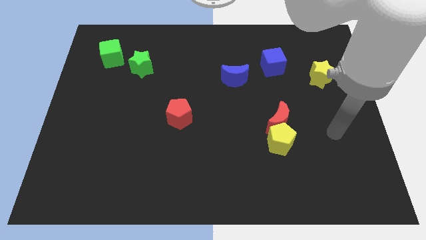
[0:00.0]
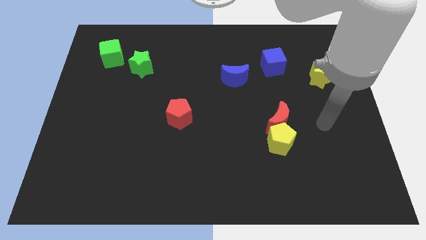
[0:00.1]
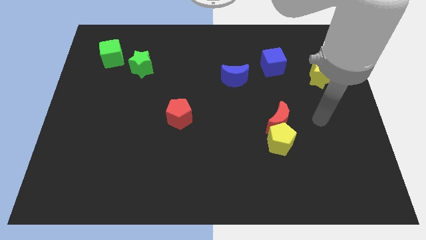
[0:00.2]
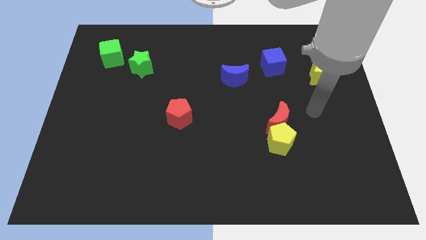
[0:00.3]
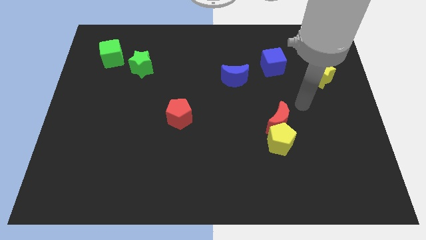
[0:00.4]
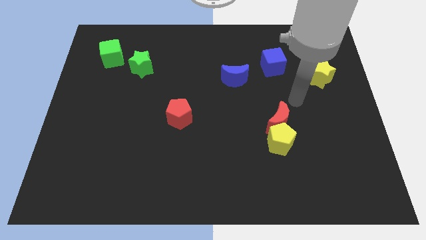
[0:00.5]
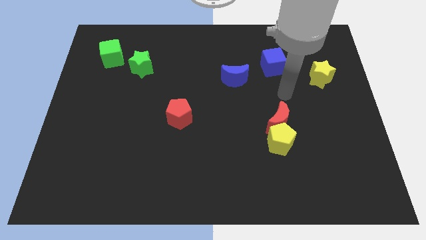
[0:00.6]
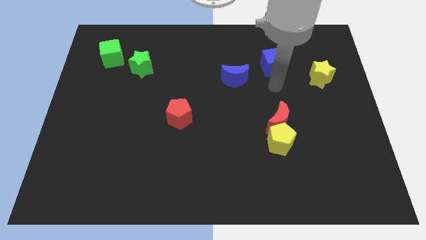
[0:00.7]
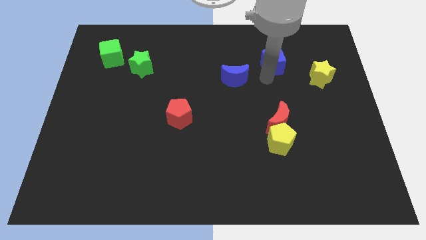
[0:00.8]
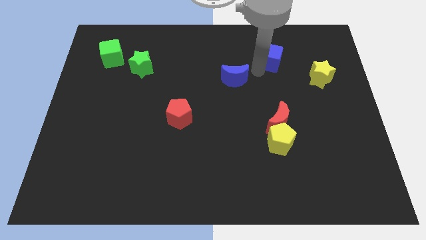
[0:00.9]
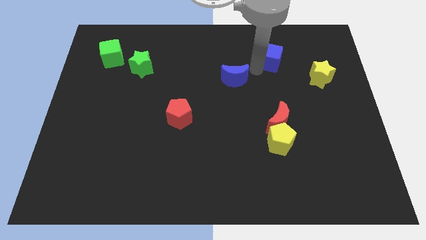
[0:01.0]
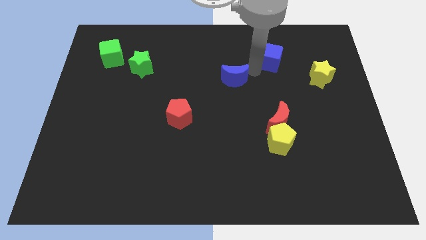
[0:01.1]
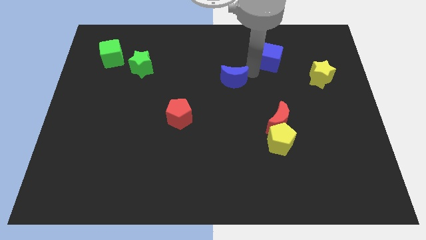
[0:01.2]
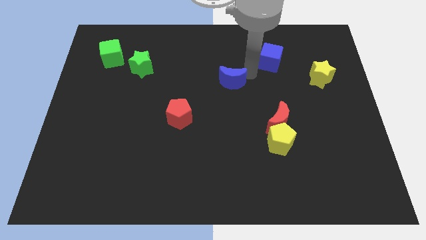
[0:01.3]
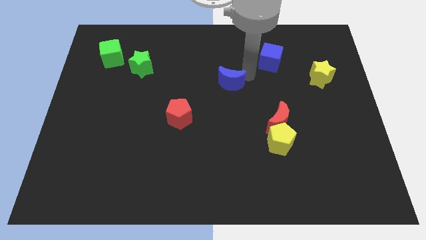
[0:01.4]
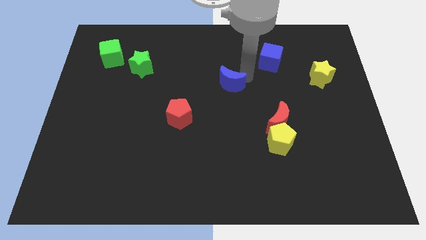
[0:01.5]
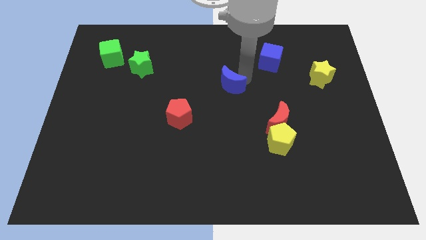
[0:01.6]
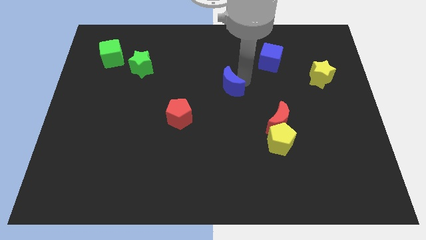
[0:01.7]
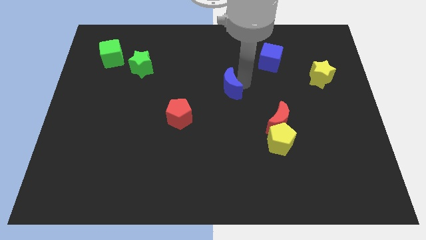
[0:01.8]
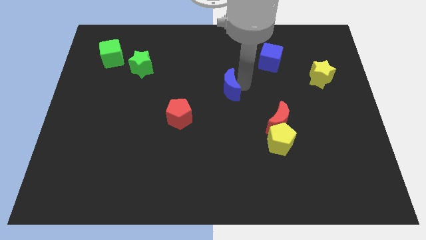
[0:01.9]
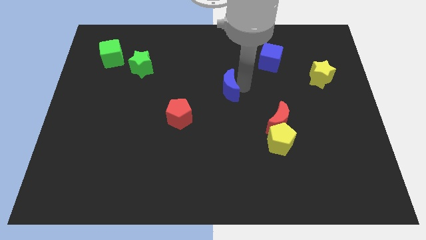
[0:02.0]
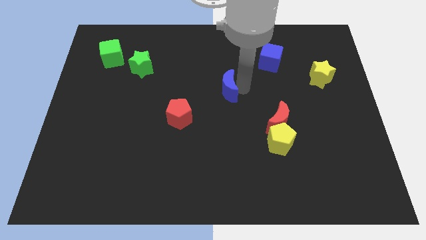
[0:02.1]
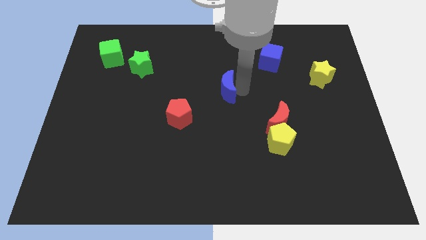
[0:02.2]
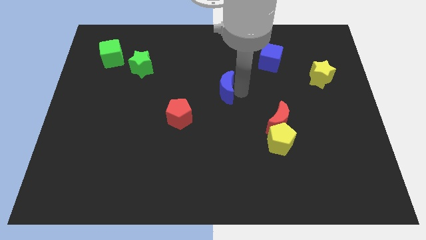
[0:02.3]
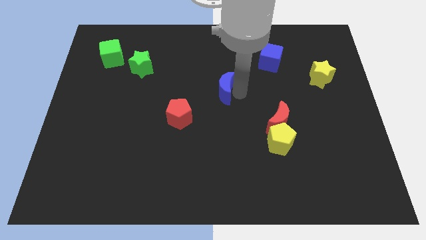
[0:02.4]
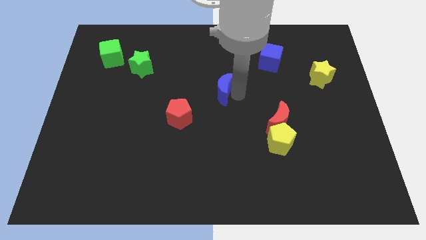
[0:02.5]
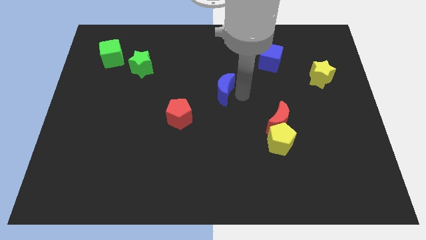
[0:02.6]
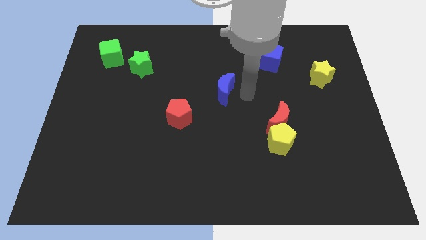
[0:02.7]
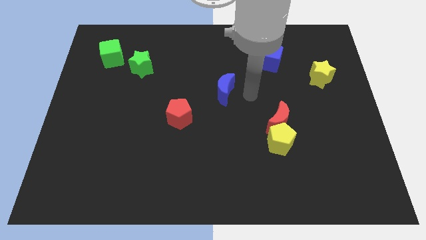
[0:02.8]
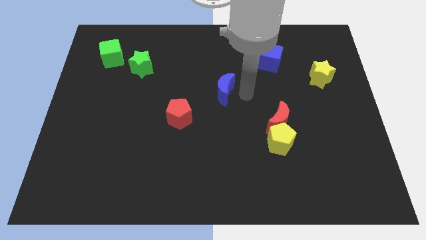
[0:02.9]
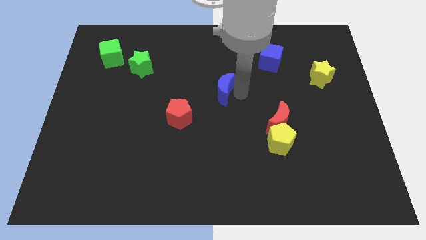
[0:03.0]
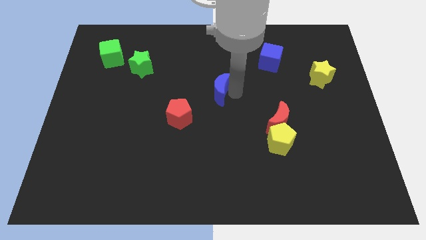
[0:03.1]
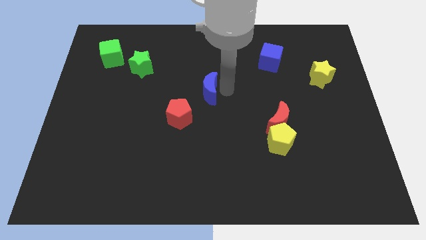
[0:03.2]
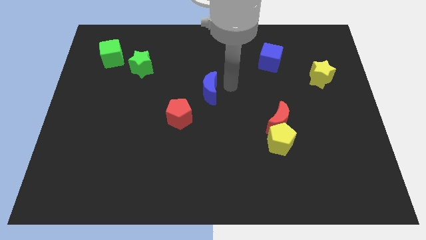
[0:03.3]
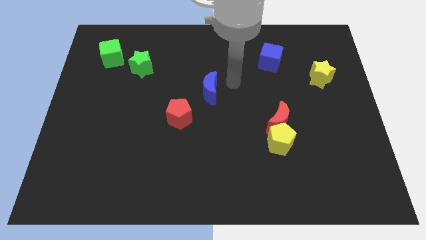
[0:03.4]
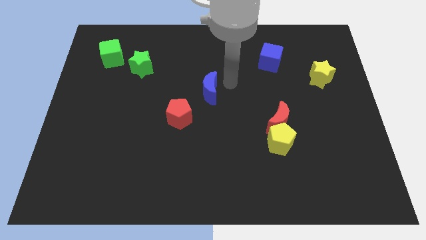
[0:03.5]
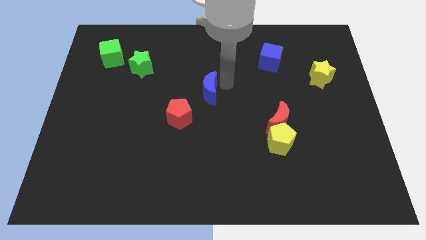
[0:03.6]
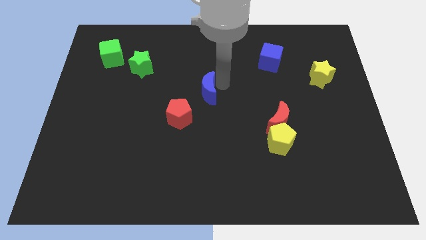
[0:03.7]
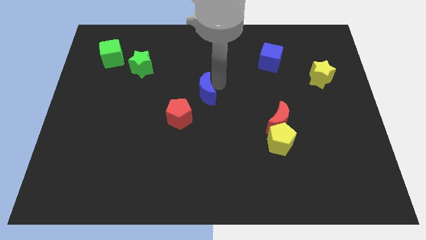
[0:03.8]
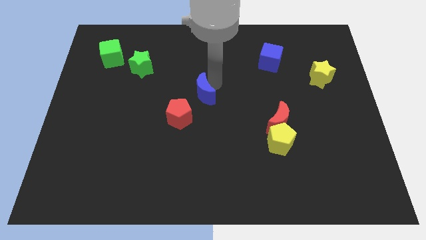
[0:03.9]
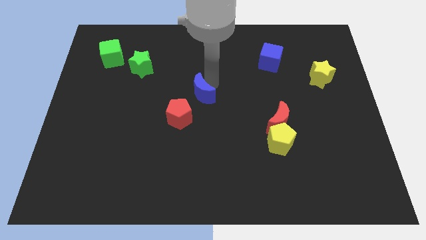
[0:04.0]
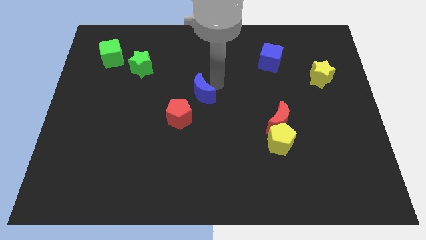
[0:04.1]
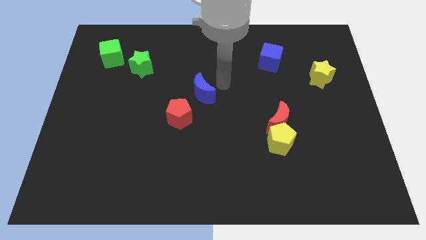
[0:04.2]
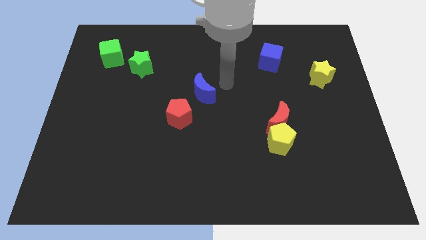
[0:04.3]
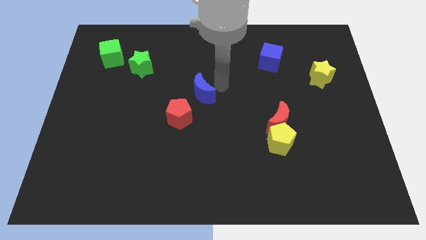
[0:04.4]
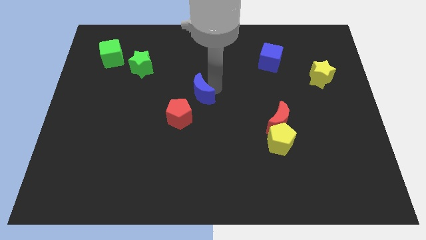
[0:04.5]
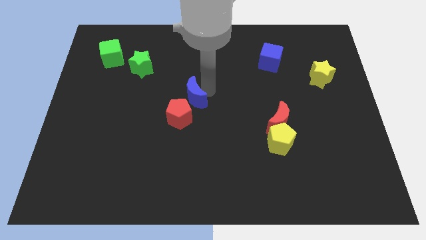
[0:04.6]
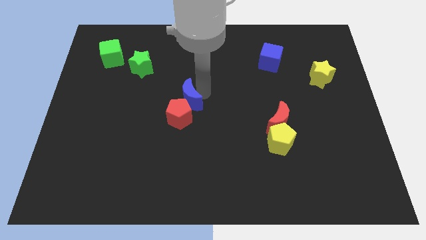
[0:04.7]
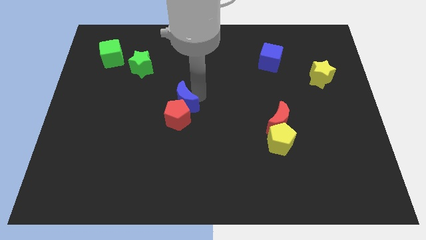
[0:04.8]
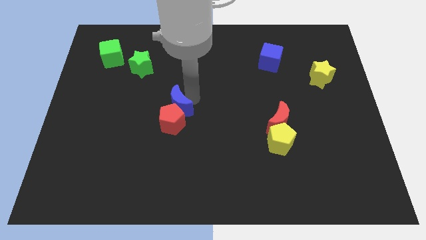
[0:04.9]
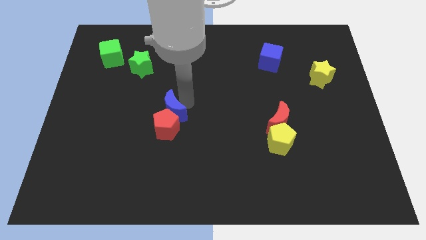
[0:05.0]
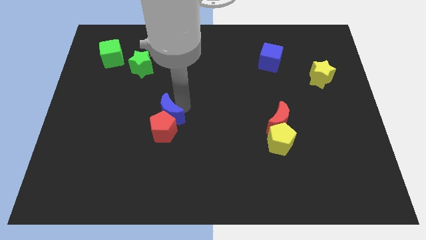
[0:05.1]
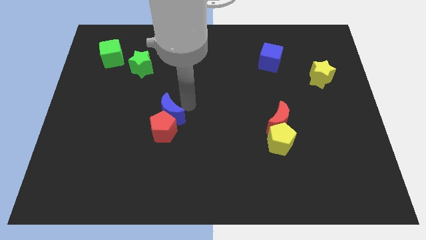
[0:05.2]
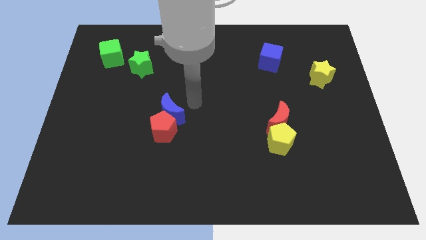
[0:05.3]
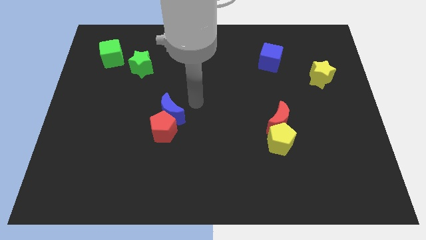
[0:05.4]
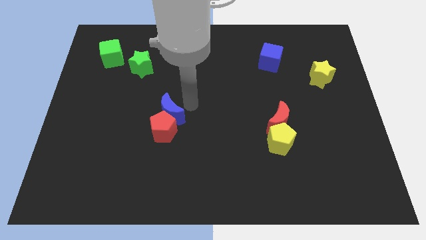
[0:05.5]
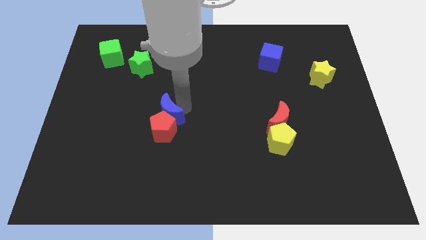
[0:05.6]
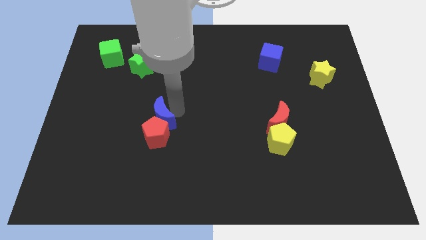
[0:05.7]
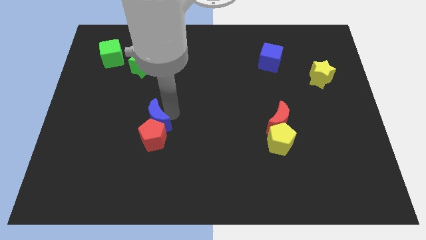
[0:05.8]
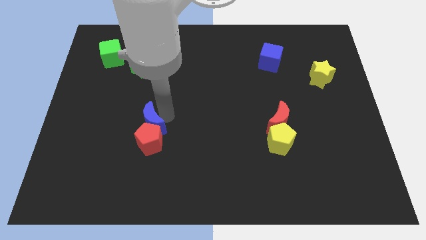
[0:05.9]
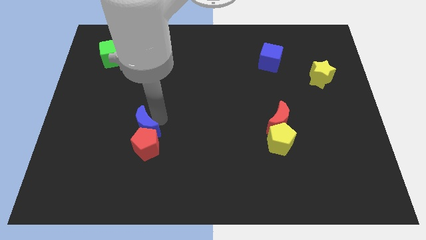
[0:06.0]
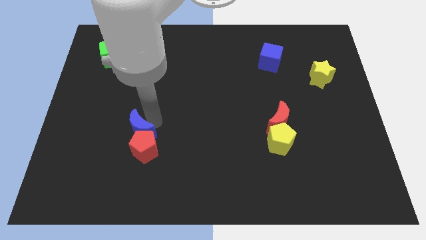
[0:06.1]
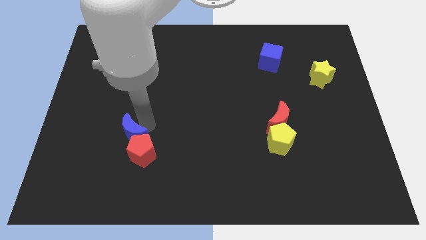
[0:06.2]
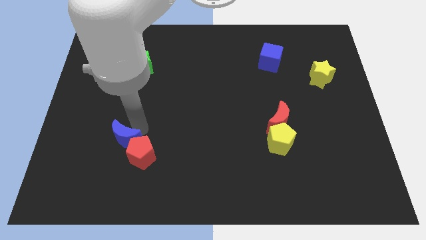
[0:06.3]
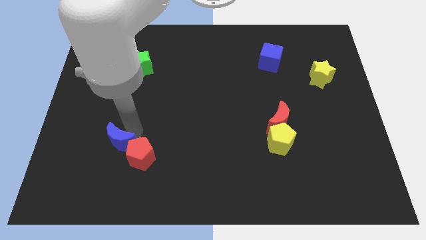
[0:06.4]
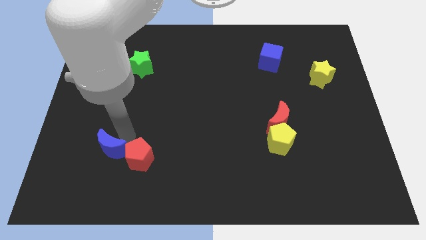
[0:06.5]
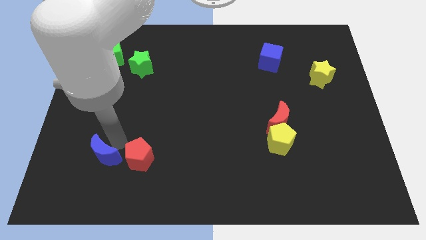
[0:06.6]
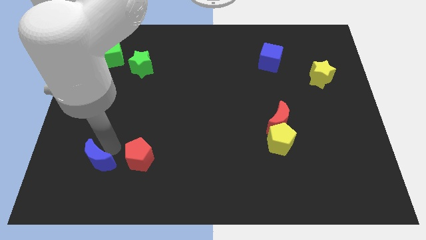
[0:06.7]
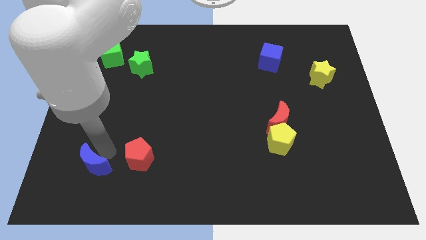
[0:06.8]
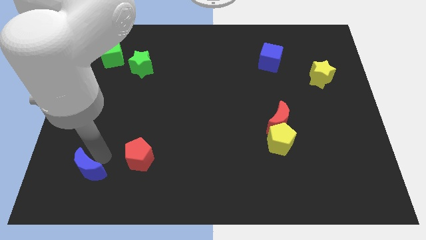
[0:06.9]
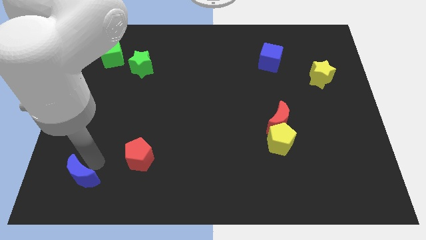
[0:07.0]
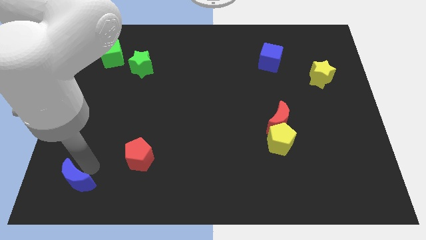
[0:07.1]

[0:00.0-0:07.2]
move the blue moon to the bottom left corner

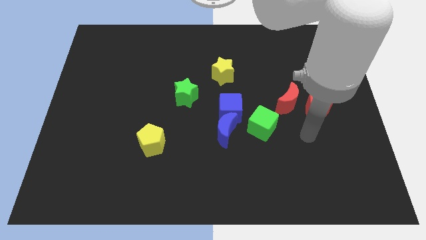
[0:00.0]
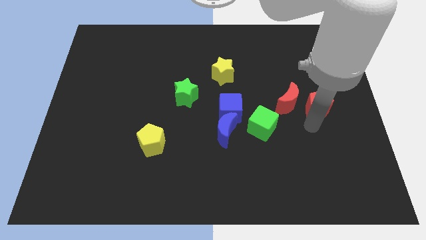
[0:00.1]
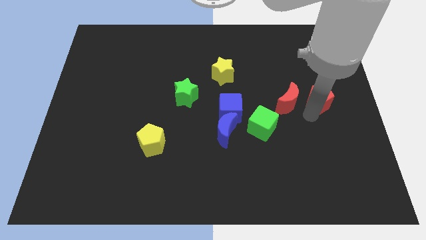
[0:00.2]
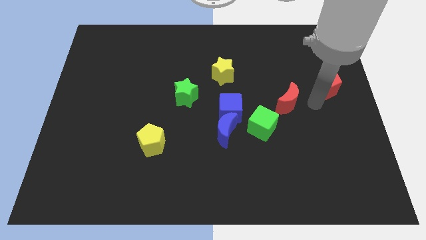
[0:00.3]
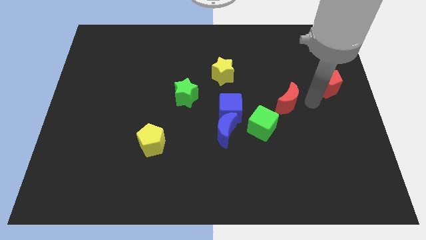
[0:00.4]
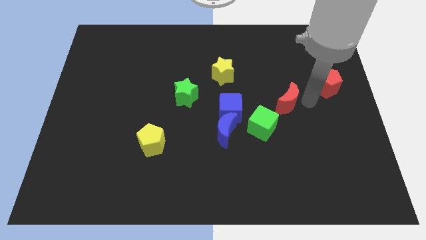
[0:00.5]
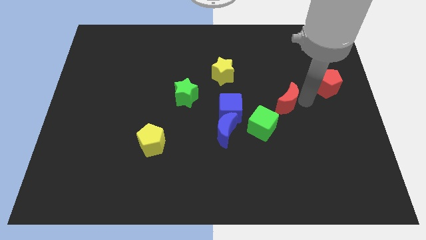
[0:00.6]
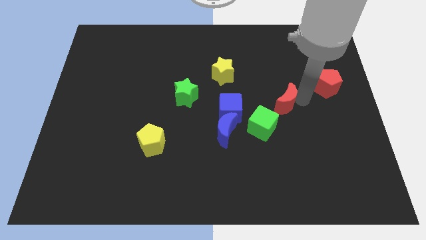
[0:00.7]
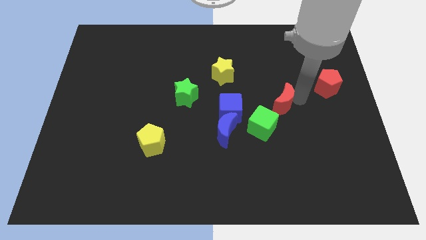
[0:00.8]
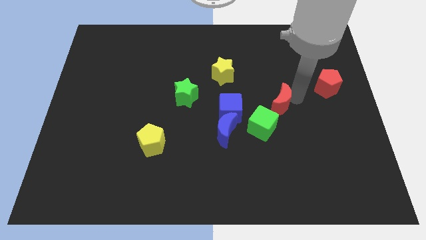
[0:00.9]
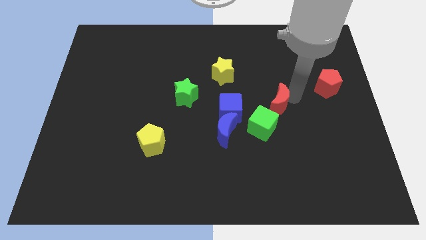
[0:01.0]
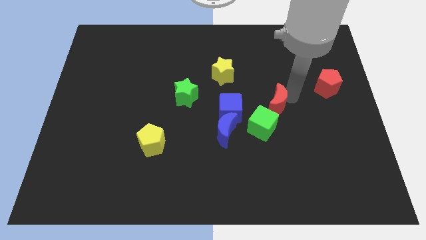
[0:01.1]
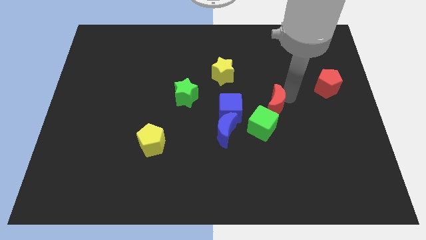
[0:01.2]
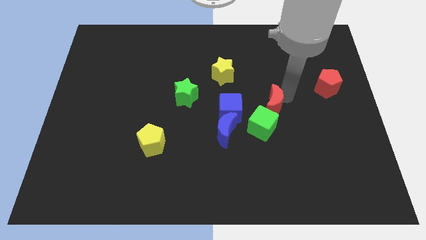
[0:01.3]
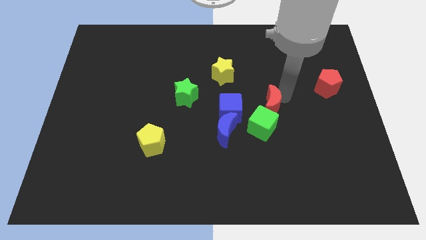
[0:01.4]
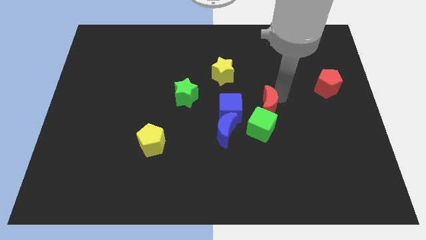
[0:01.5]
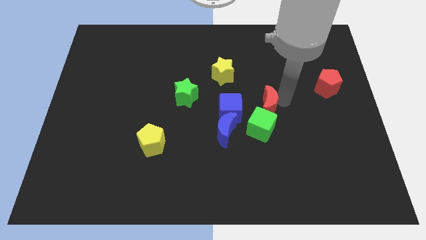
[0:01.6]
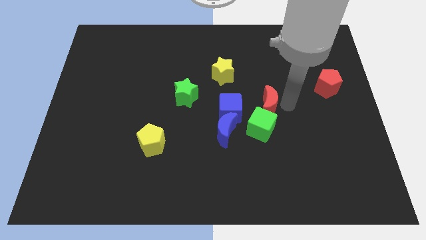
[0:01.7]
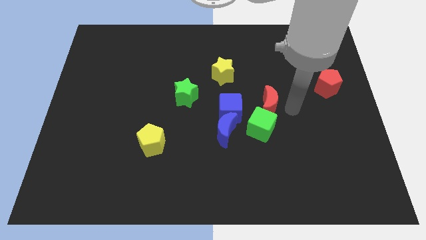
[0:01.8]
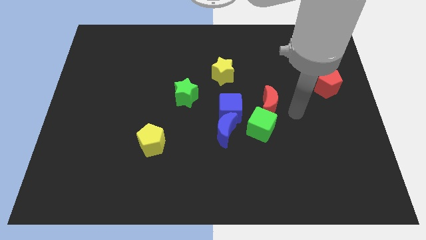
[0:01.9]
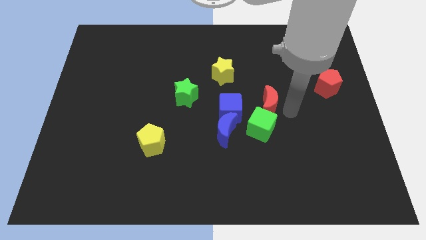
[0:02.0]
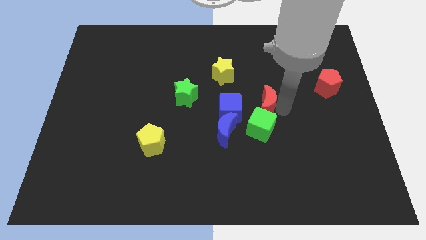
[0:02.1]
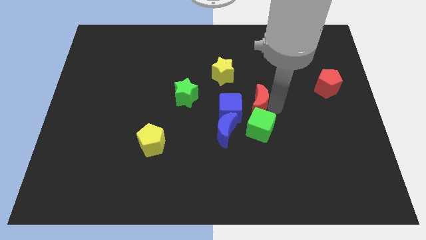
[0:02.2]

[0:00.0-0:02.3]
slide the red moon to the center
